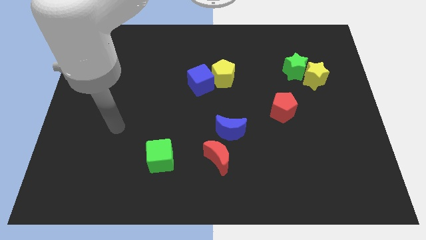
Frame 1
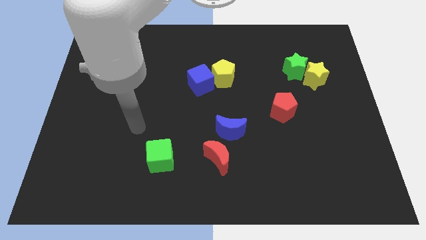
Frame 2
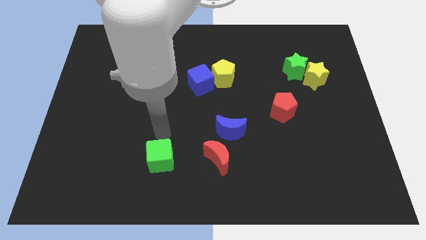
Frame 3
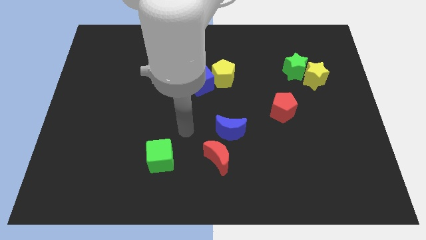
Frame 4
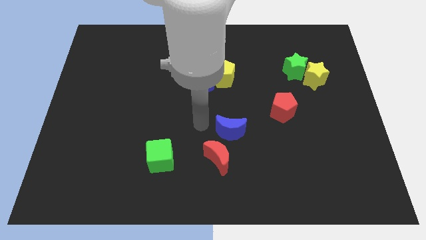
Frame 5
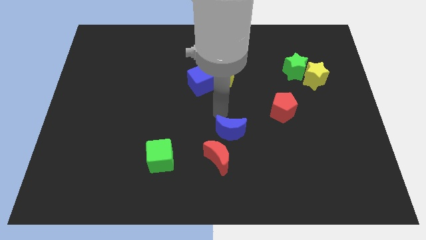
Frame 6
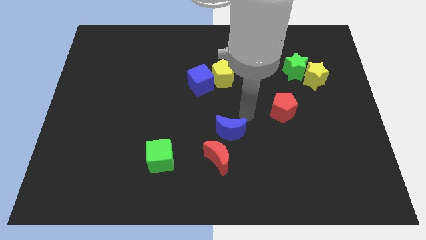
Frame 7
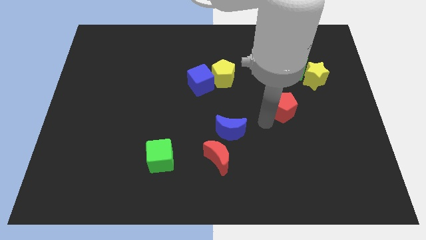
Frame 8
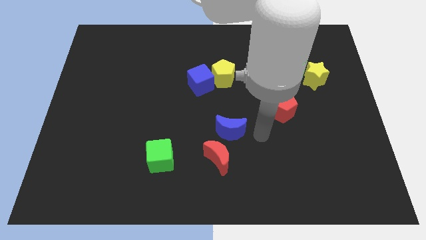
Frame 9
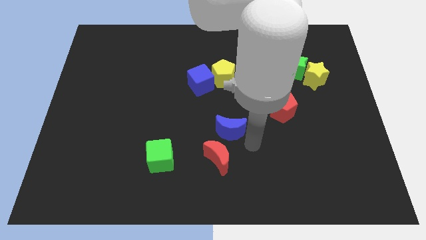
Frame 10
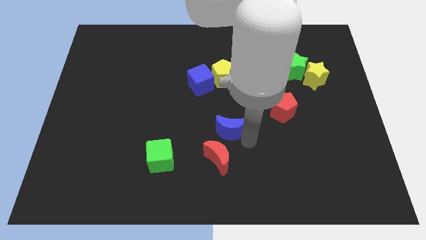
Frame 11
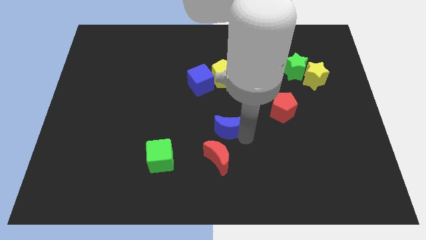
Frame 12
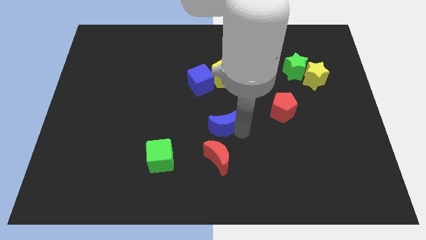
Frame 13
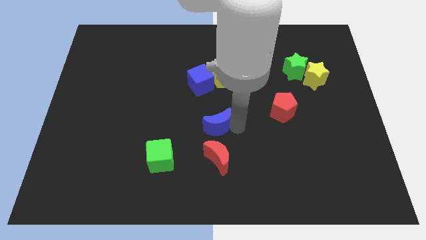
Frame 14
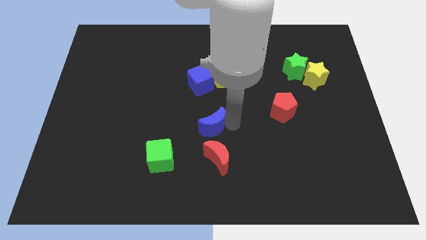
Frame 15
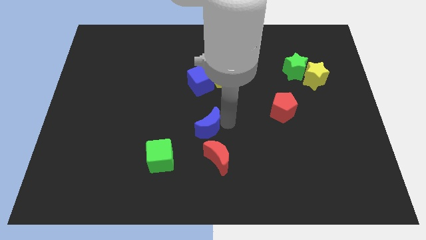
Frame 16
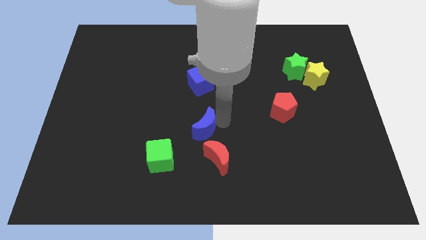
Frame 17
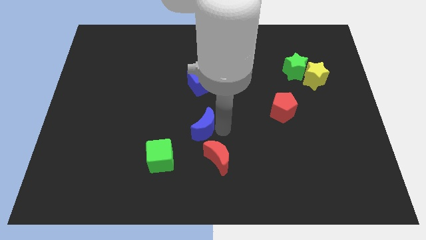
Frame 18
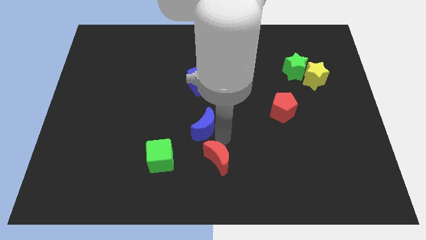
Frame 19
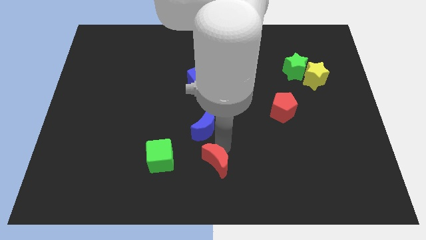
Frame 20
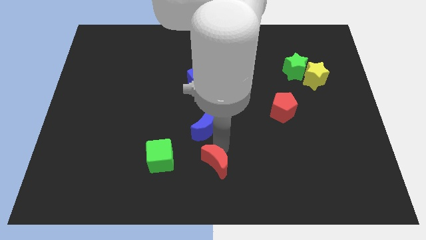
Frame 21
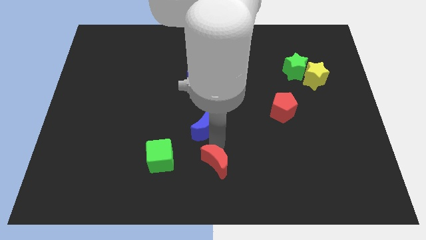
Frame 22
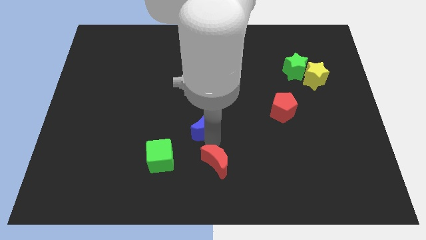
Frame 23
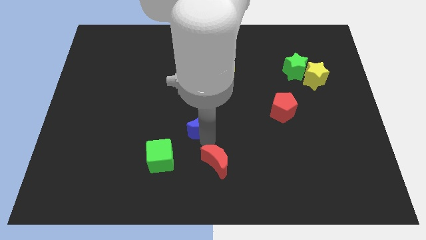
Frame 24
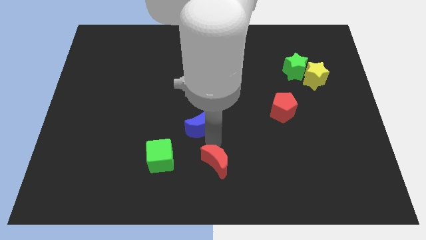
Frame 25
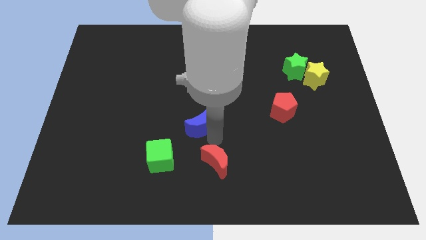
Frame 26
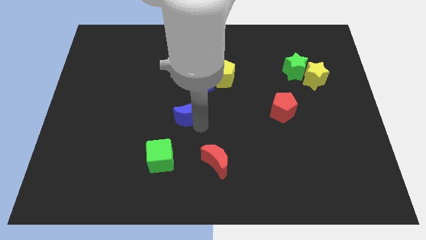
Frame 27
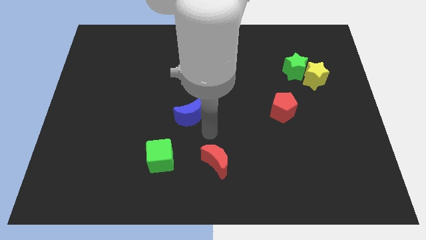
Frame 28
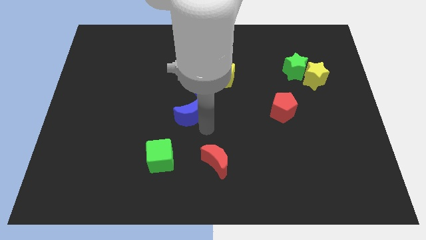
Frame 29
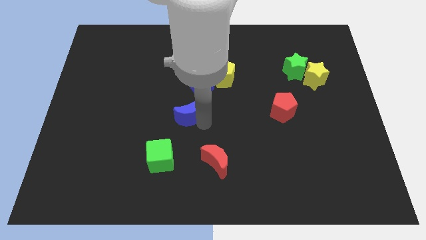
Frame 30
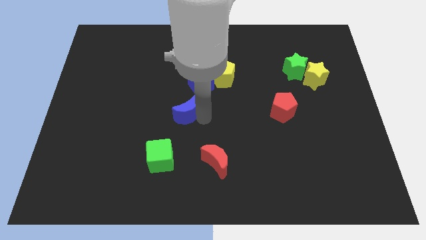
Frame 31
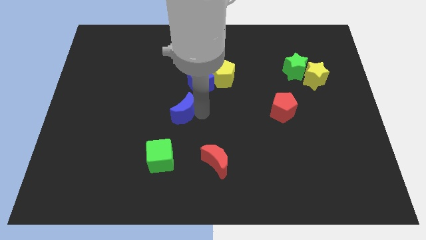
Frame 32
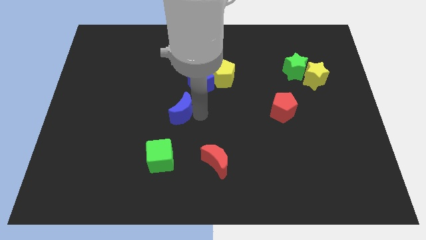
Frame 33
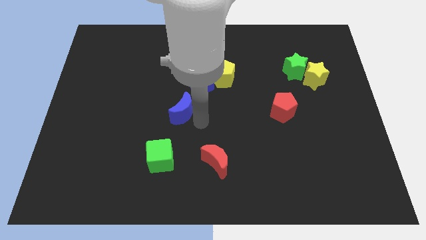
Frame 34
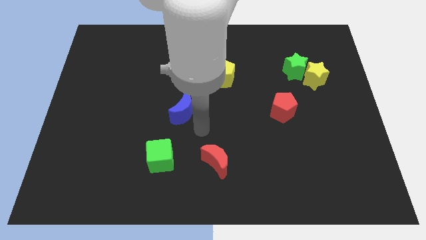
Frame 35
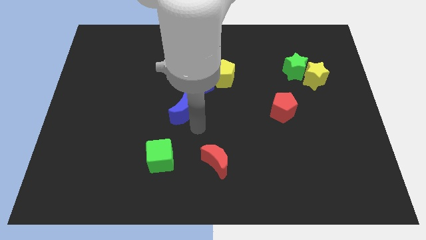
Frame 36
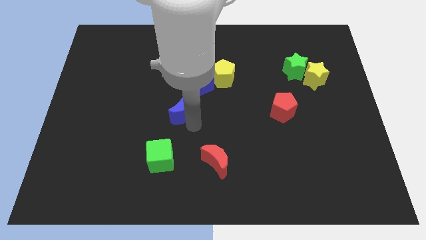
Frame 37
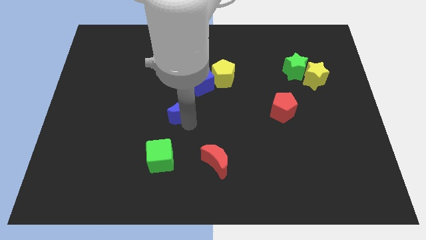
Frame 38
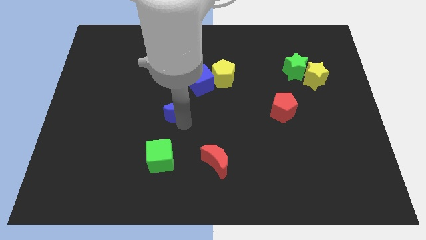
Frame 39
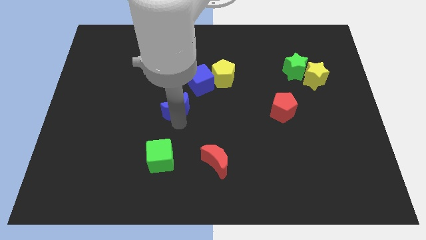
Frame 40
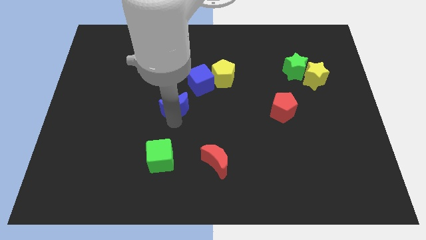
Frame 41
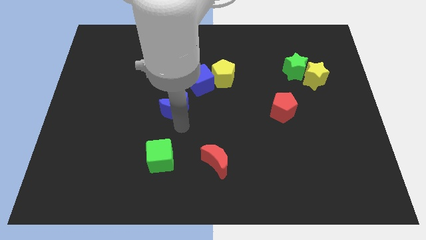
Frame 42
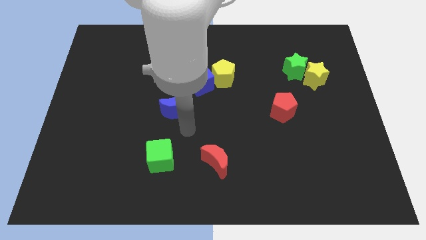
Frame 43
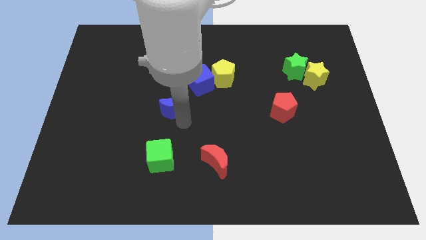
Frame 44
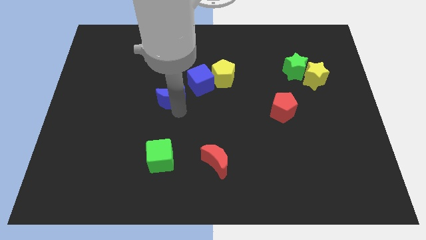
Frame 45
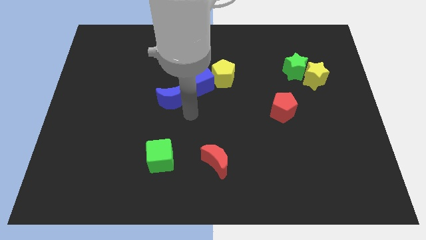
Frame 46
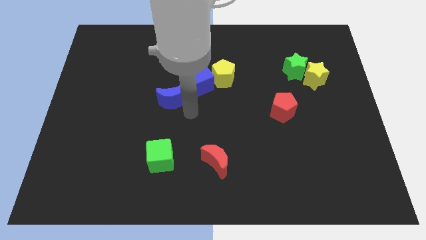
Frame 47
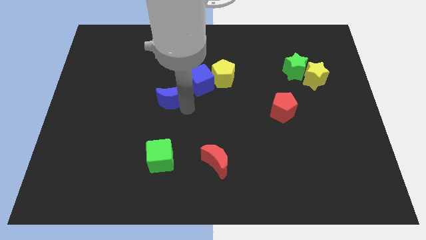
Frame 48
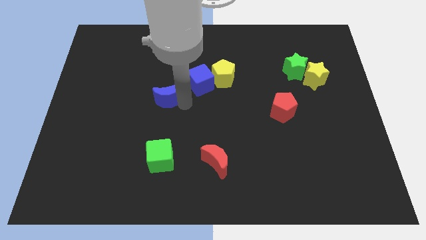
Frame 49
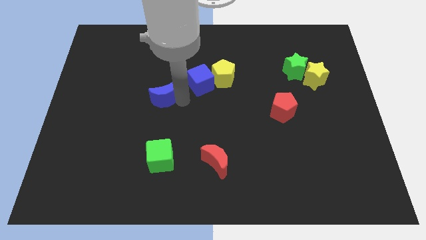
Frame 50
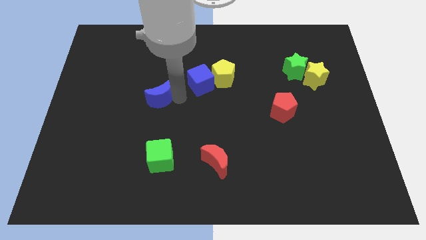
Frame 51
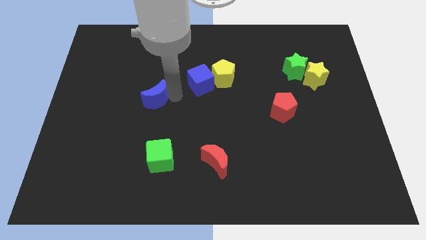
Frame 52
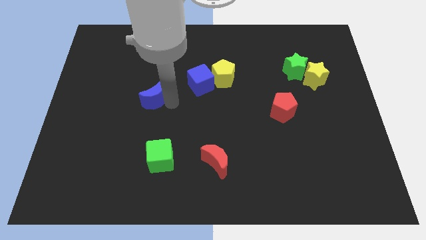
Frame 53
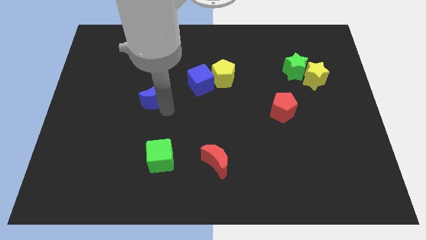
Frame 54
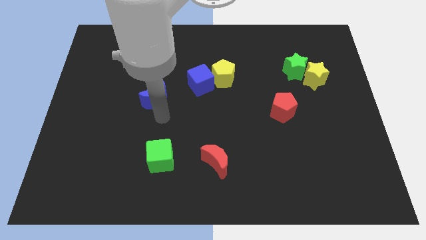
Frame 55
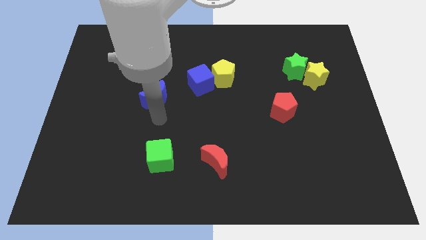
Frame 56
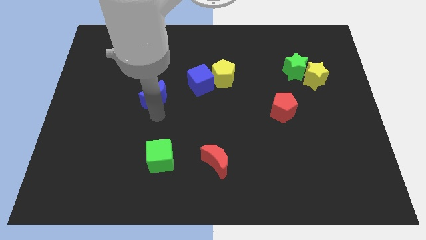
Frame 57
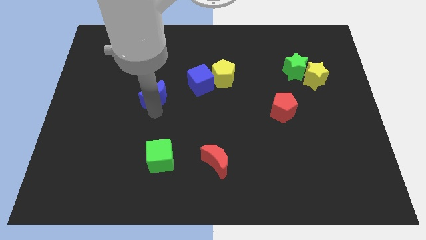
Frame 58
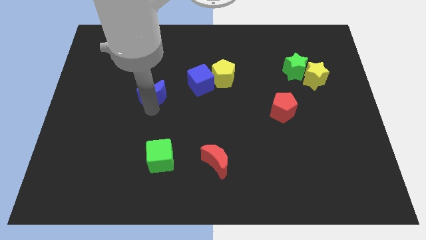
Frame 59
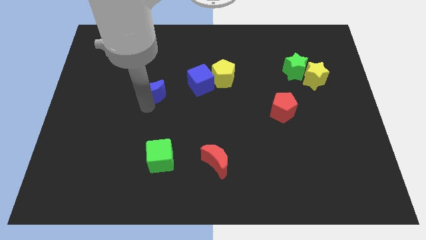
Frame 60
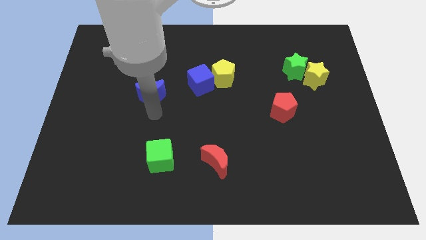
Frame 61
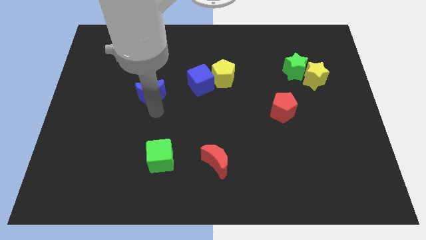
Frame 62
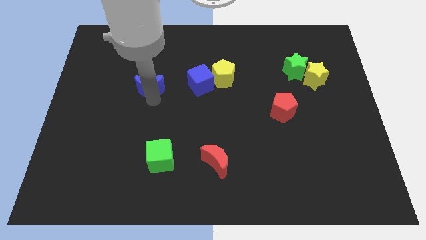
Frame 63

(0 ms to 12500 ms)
push the blue moon up and then to the left

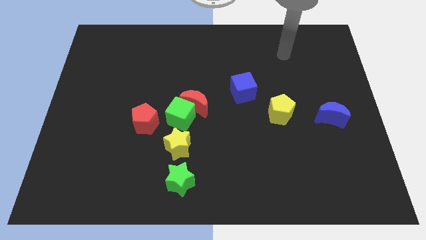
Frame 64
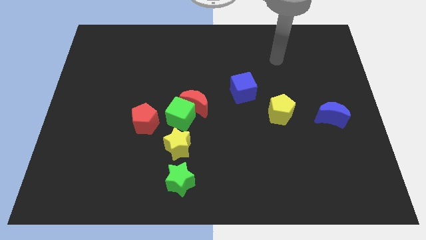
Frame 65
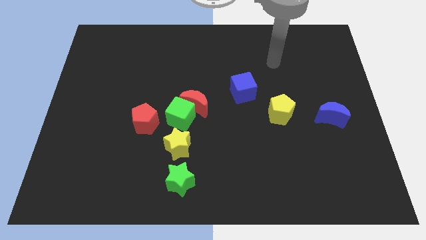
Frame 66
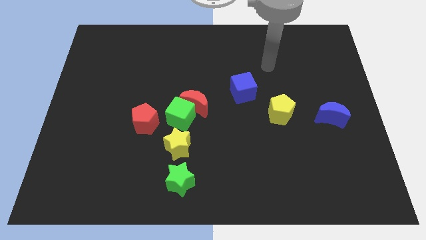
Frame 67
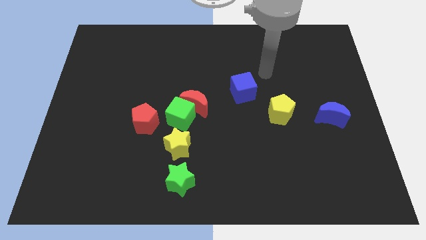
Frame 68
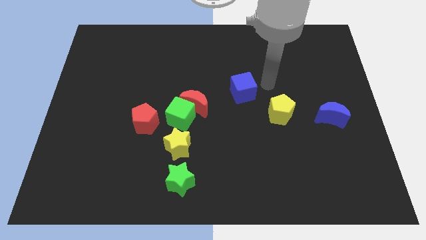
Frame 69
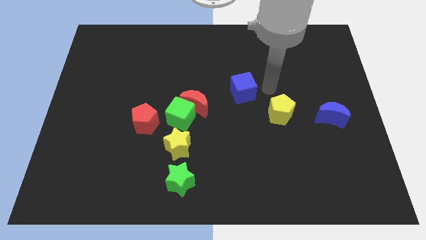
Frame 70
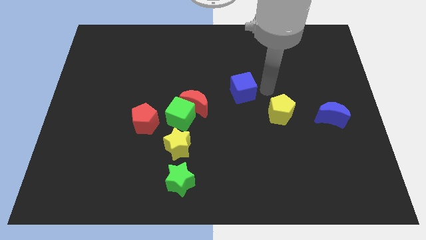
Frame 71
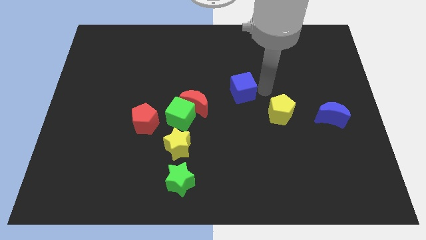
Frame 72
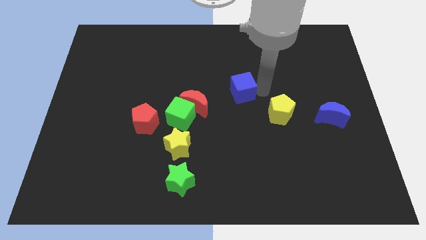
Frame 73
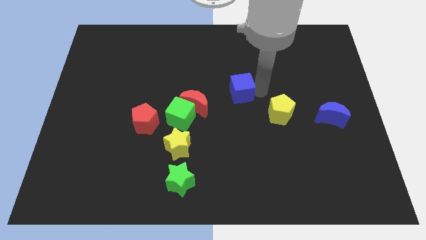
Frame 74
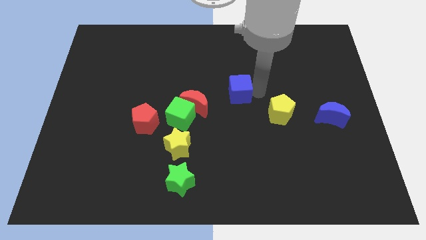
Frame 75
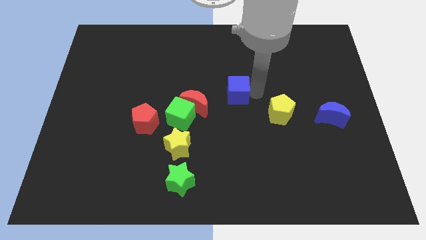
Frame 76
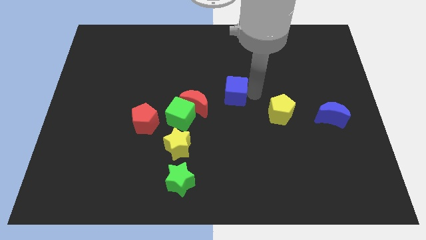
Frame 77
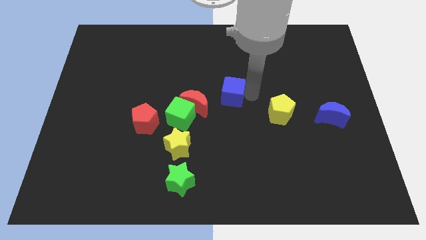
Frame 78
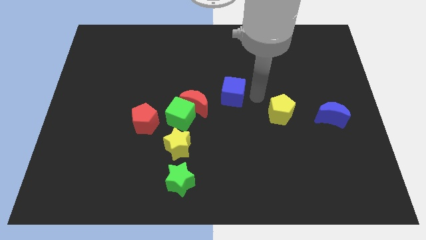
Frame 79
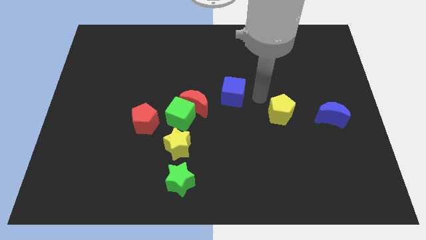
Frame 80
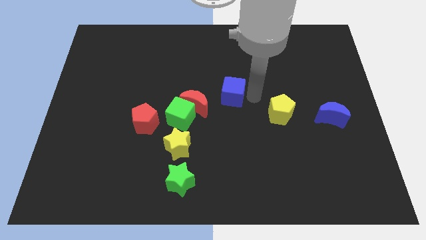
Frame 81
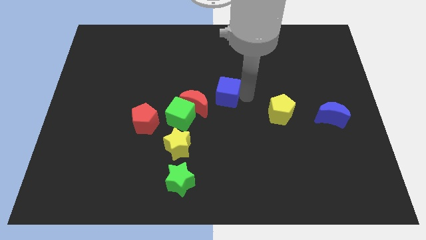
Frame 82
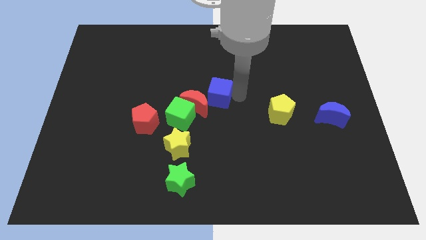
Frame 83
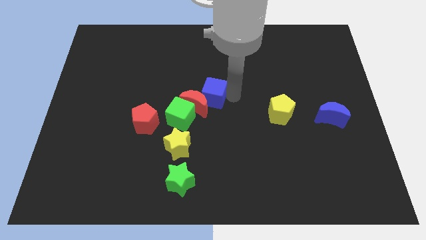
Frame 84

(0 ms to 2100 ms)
slightly push the blue cube to the left
